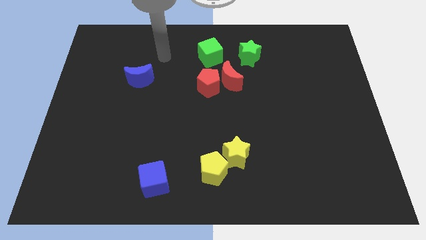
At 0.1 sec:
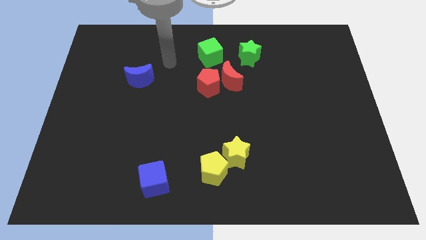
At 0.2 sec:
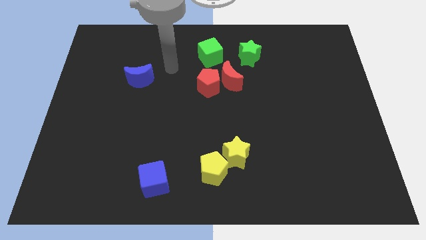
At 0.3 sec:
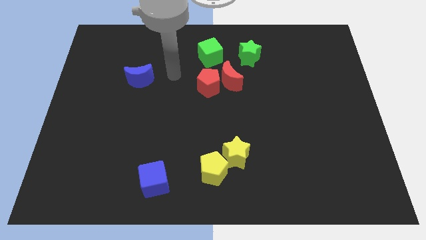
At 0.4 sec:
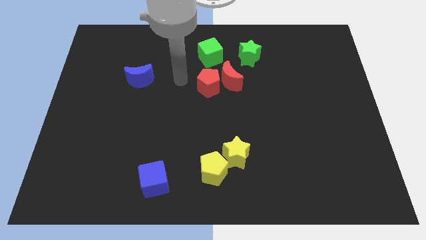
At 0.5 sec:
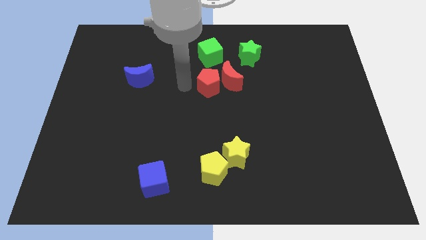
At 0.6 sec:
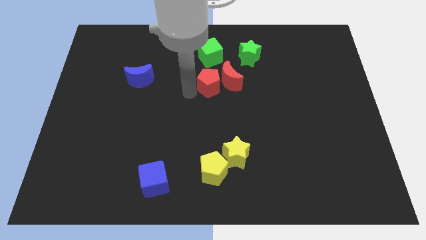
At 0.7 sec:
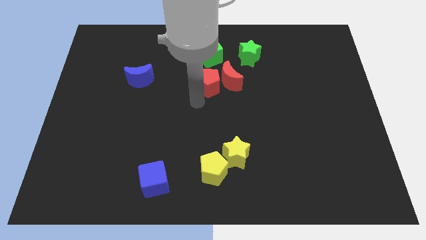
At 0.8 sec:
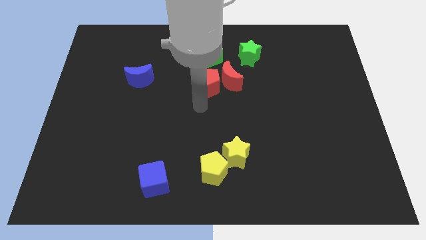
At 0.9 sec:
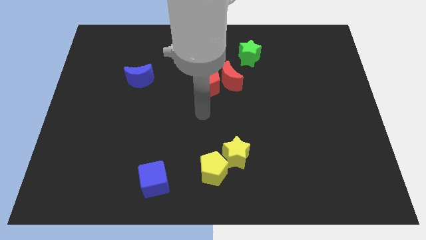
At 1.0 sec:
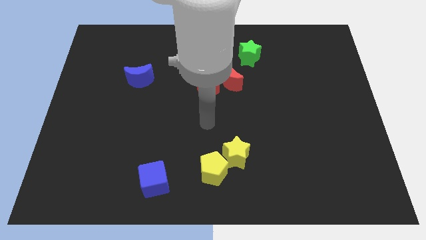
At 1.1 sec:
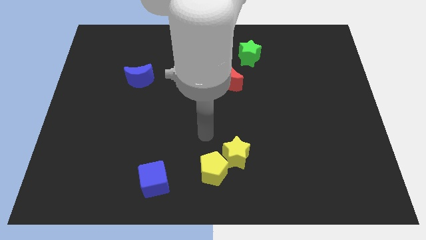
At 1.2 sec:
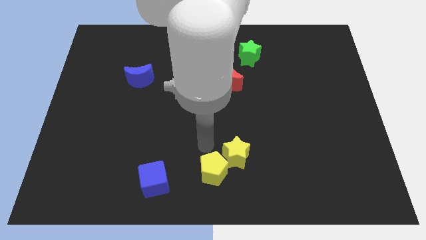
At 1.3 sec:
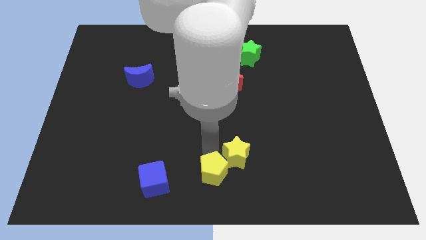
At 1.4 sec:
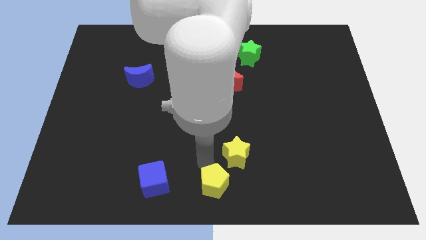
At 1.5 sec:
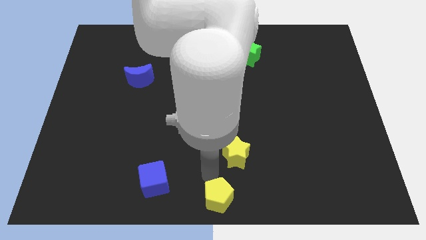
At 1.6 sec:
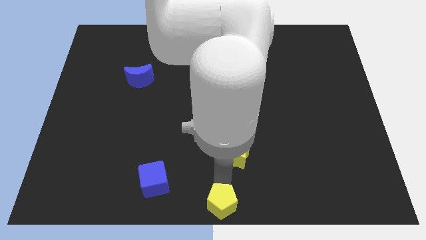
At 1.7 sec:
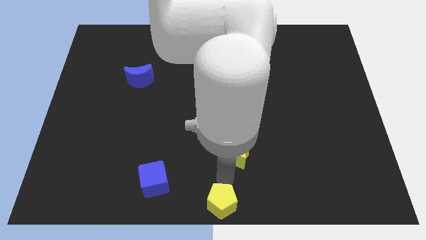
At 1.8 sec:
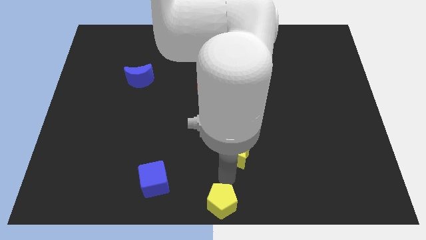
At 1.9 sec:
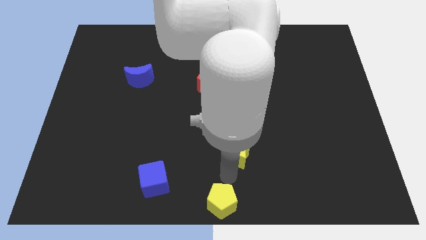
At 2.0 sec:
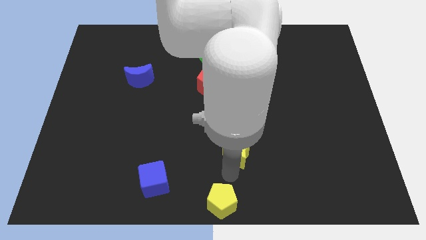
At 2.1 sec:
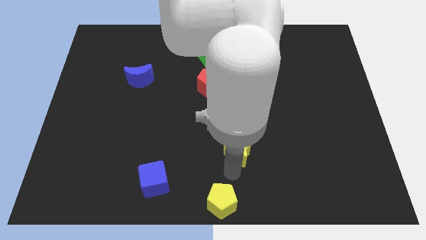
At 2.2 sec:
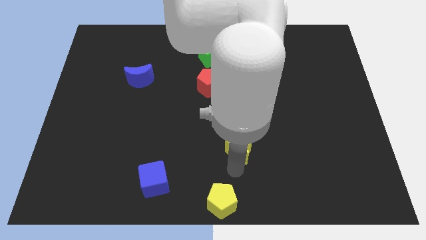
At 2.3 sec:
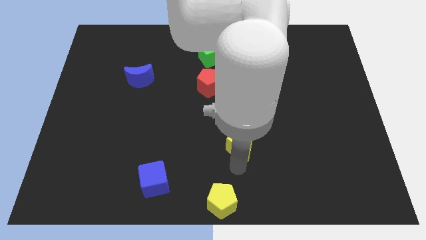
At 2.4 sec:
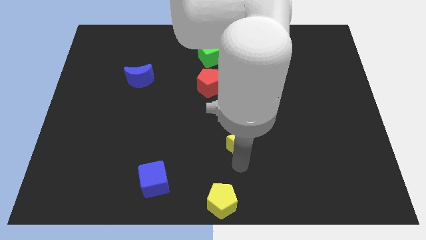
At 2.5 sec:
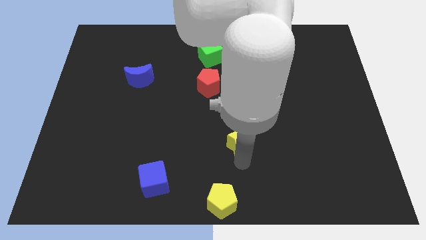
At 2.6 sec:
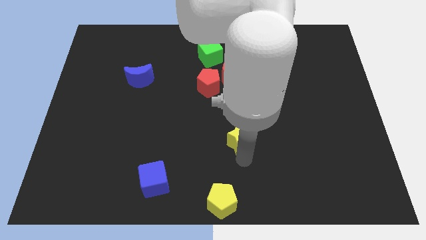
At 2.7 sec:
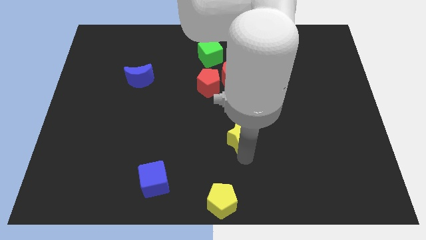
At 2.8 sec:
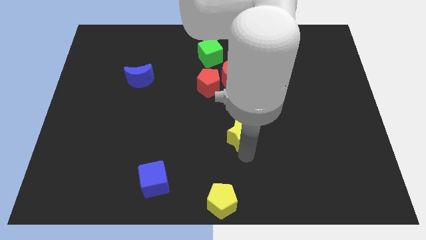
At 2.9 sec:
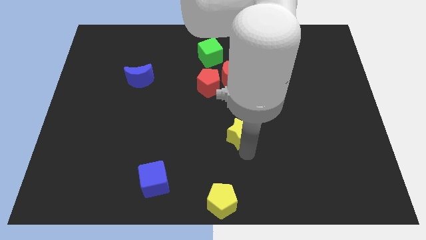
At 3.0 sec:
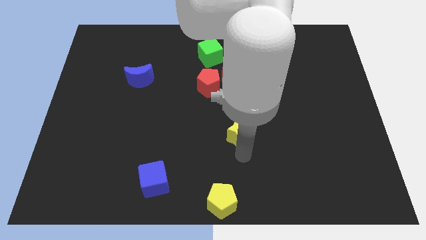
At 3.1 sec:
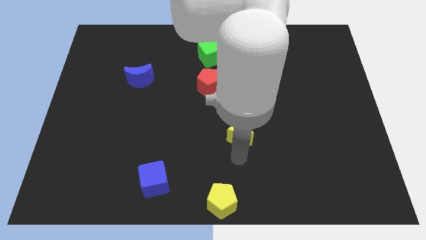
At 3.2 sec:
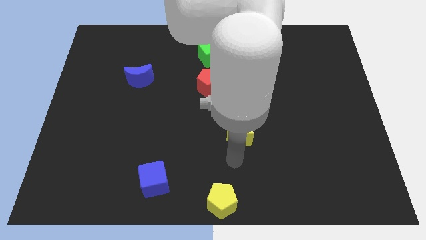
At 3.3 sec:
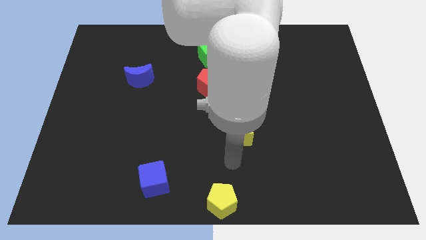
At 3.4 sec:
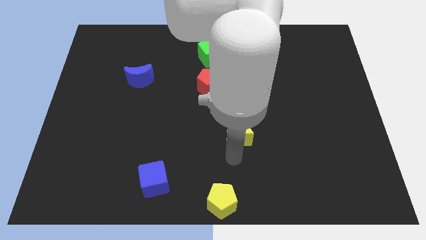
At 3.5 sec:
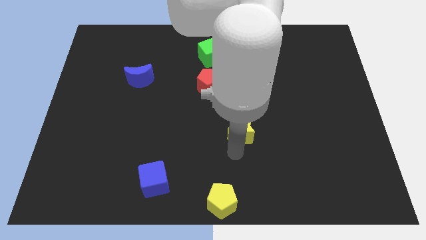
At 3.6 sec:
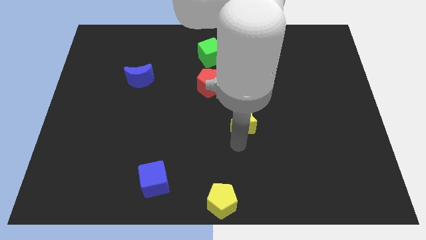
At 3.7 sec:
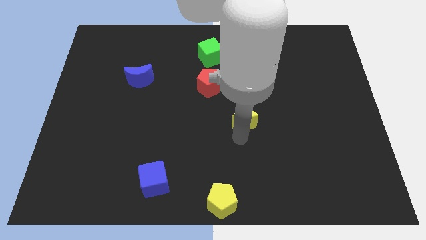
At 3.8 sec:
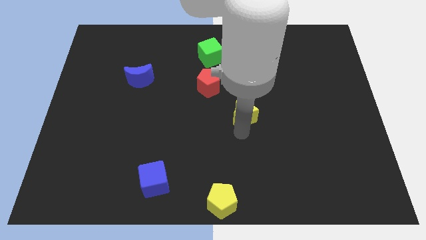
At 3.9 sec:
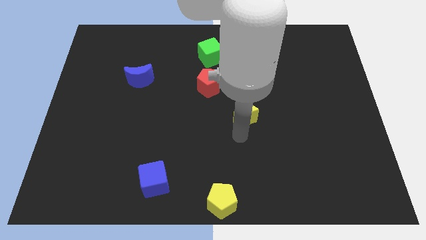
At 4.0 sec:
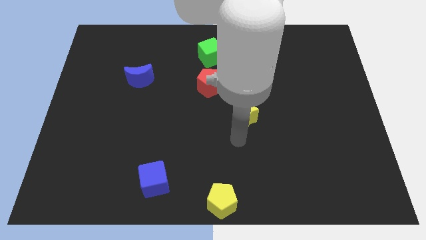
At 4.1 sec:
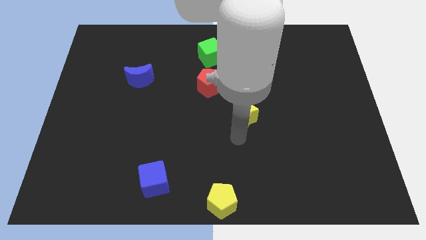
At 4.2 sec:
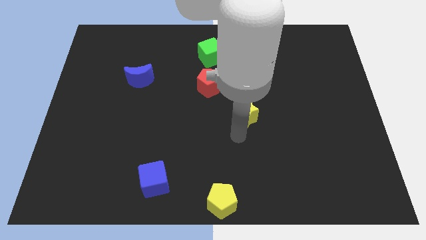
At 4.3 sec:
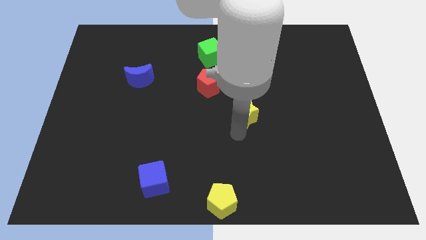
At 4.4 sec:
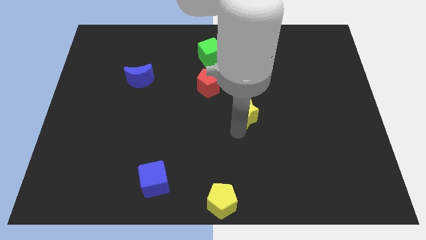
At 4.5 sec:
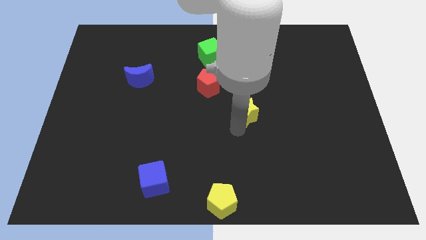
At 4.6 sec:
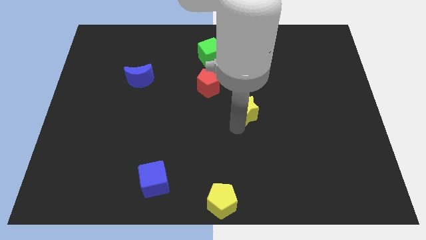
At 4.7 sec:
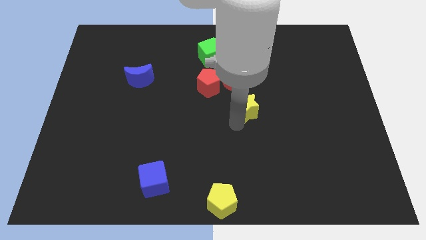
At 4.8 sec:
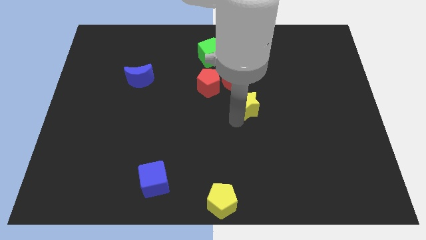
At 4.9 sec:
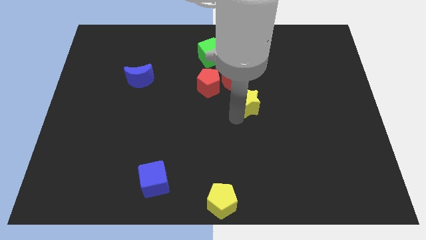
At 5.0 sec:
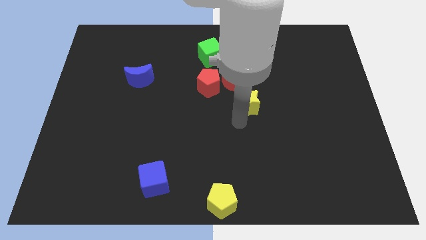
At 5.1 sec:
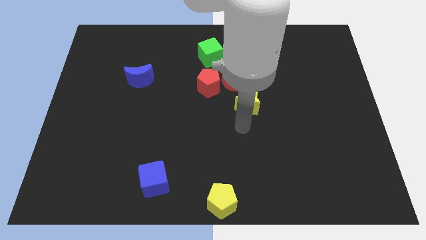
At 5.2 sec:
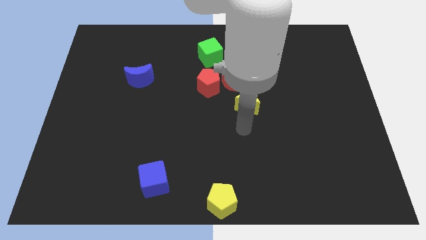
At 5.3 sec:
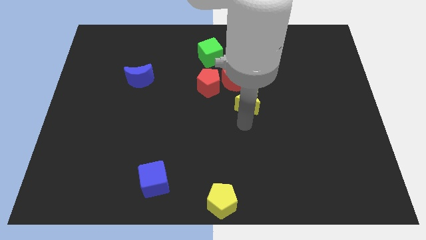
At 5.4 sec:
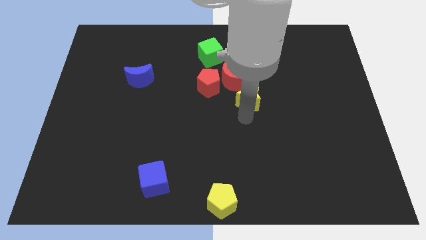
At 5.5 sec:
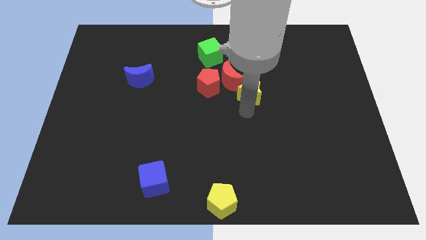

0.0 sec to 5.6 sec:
slide the yellow star to the right of the red pentagon

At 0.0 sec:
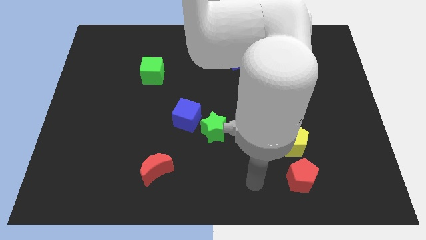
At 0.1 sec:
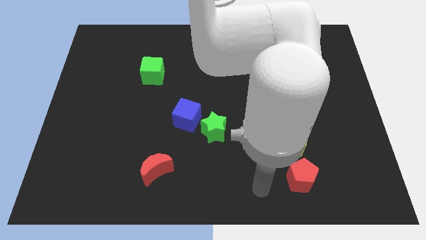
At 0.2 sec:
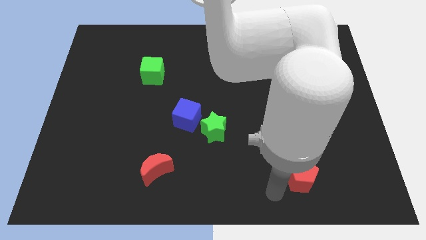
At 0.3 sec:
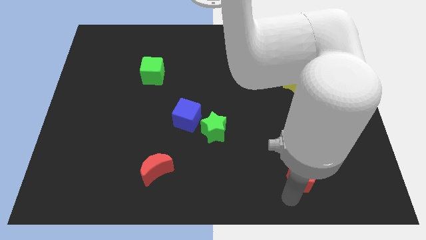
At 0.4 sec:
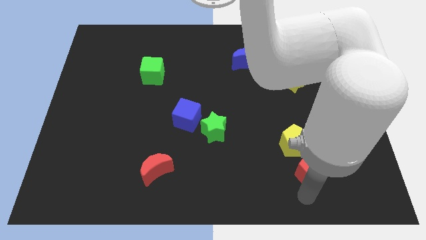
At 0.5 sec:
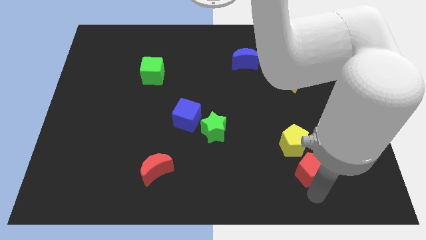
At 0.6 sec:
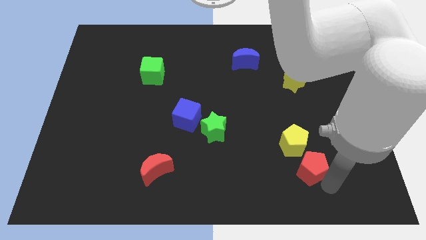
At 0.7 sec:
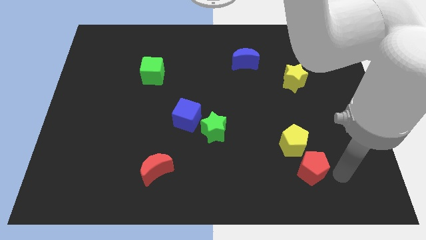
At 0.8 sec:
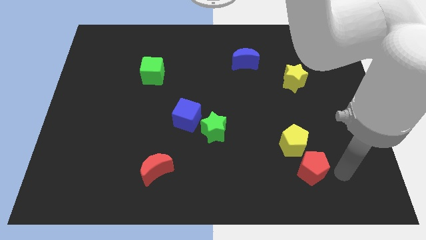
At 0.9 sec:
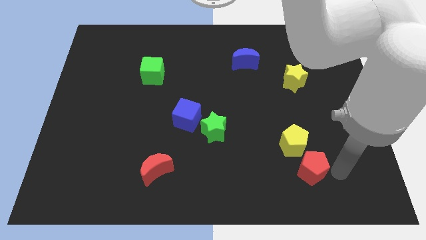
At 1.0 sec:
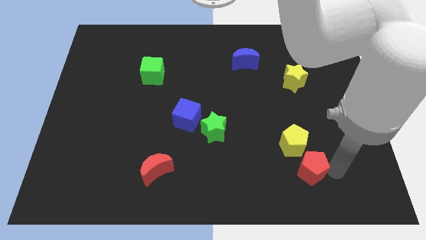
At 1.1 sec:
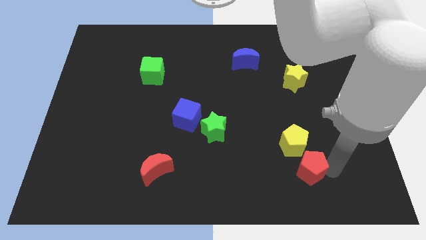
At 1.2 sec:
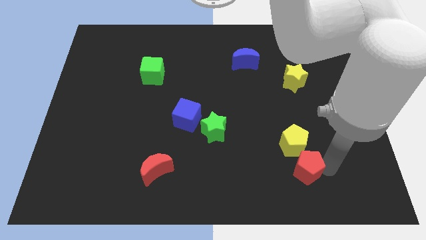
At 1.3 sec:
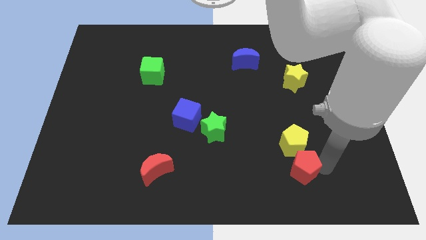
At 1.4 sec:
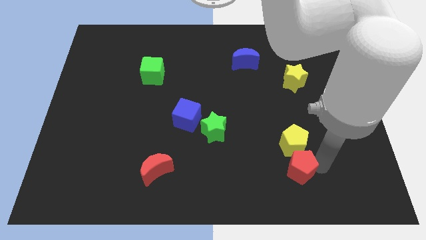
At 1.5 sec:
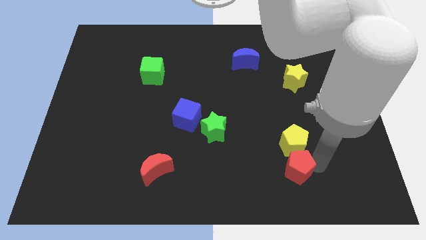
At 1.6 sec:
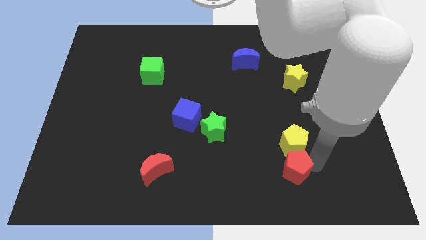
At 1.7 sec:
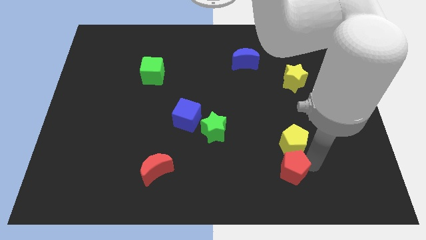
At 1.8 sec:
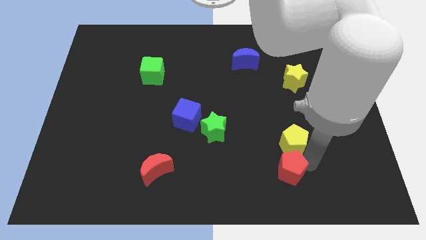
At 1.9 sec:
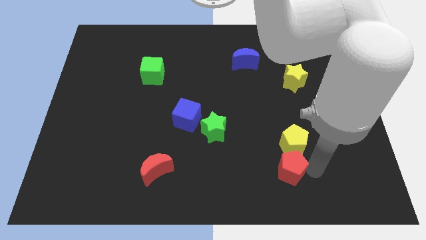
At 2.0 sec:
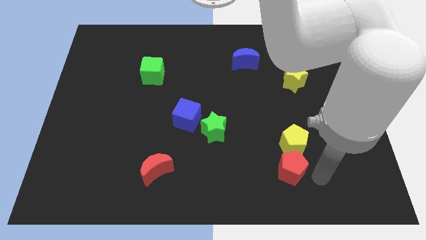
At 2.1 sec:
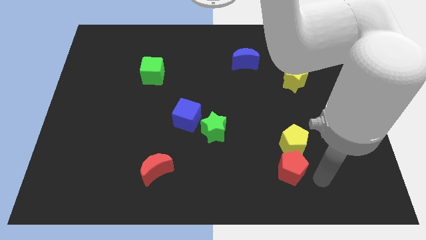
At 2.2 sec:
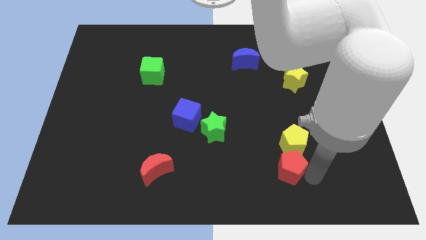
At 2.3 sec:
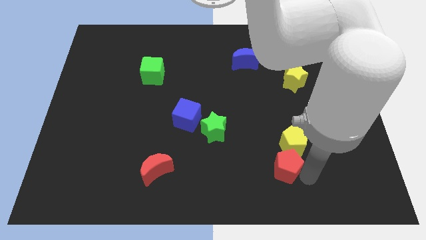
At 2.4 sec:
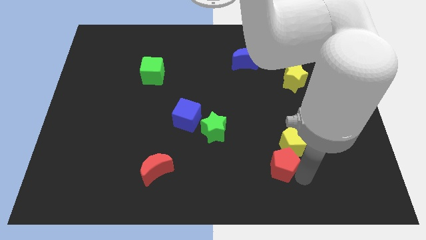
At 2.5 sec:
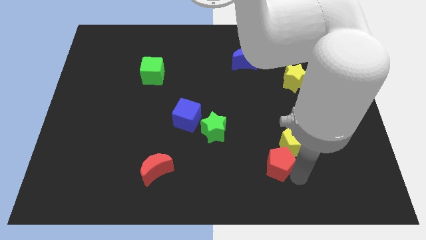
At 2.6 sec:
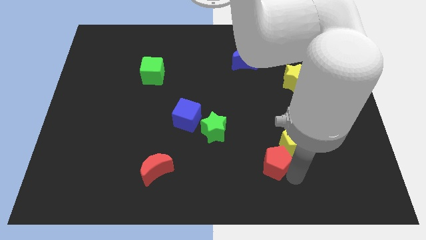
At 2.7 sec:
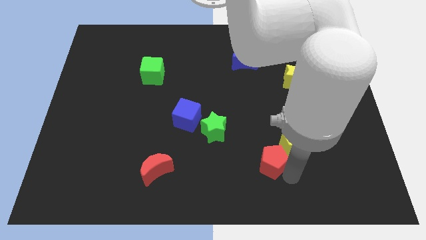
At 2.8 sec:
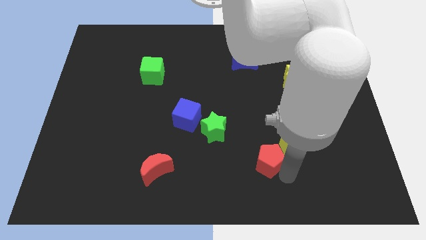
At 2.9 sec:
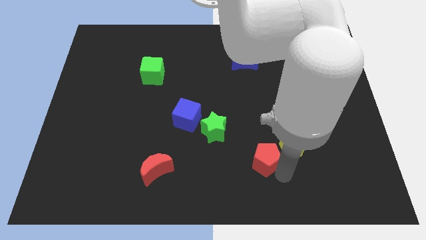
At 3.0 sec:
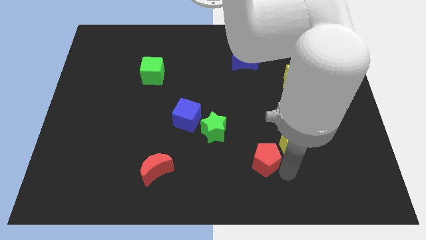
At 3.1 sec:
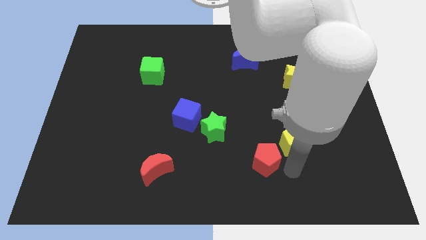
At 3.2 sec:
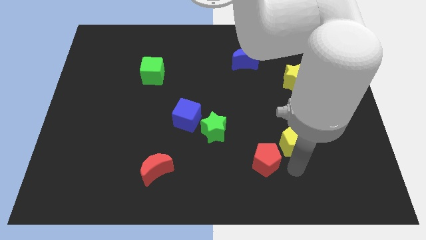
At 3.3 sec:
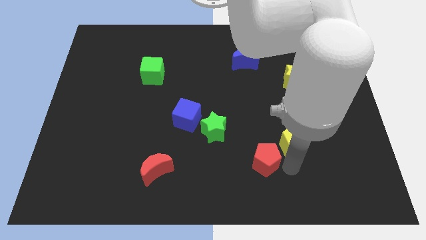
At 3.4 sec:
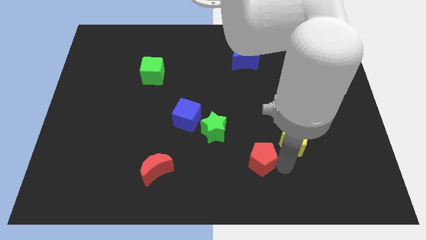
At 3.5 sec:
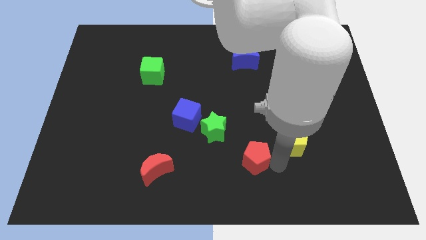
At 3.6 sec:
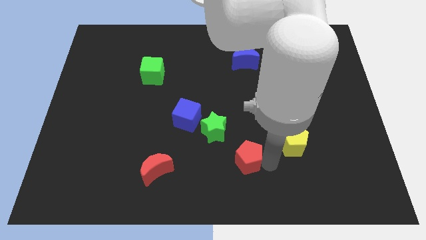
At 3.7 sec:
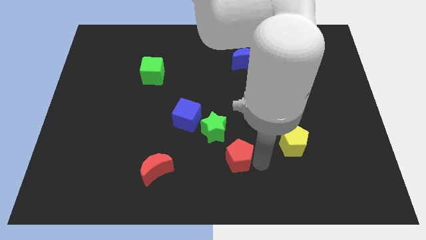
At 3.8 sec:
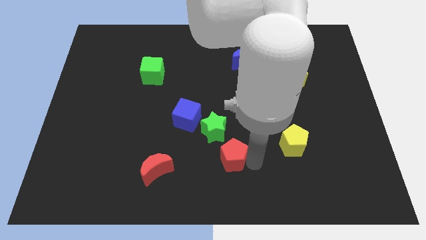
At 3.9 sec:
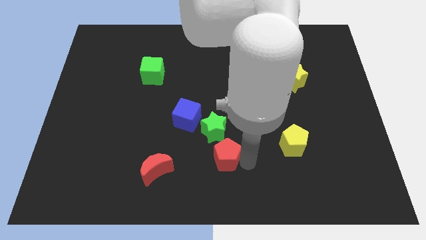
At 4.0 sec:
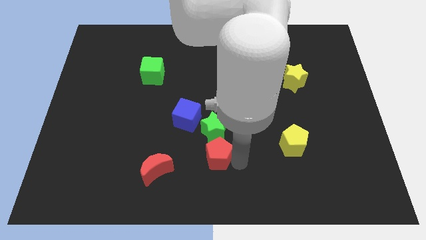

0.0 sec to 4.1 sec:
put the red pentagon to the bottom right side of the blue cube
